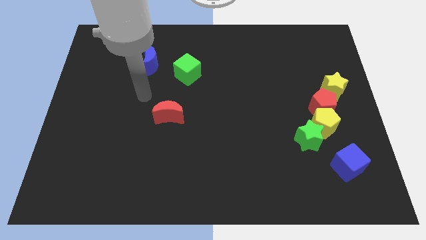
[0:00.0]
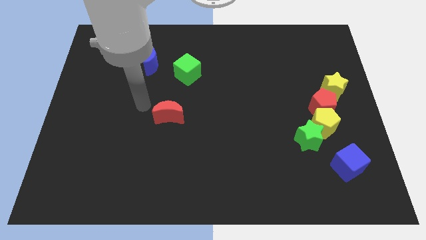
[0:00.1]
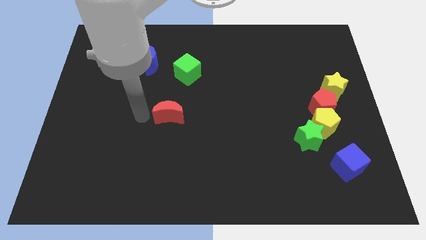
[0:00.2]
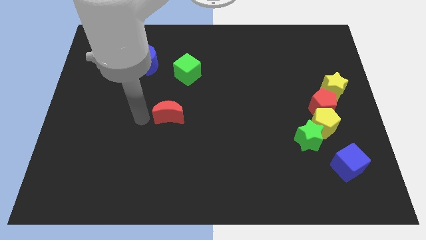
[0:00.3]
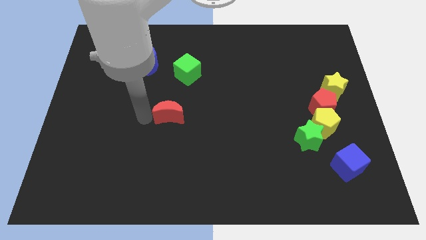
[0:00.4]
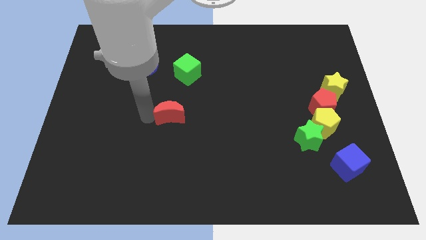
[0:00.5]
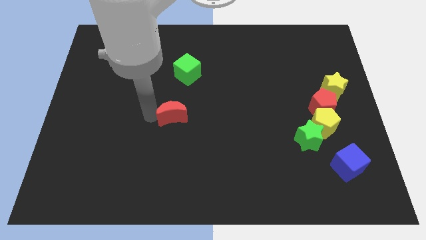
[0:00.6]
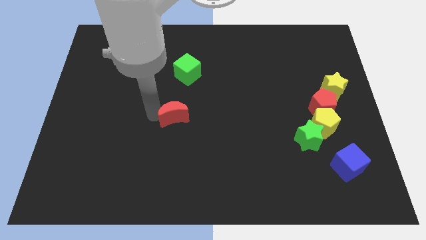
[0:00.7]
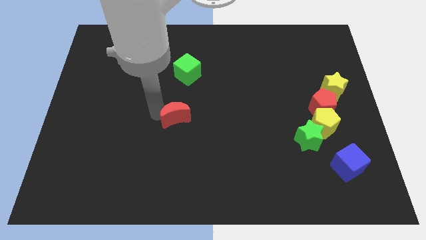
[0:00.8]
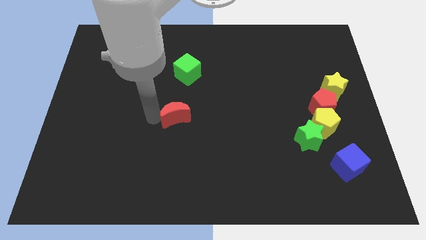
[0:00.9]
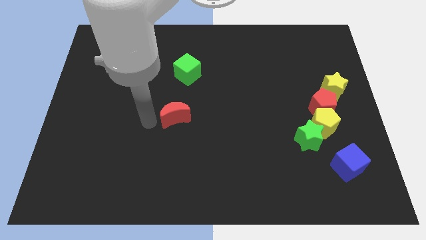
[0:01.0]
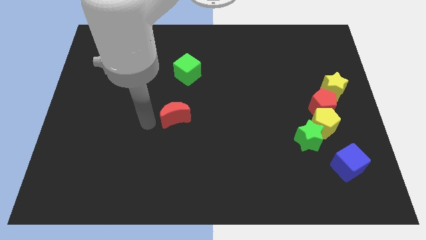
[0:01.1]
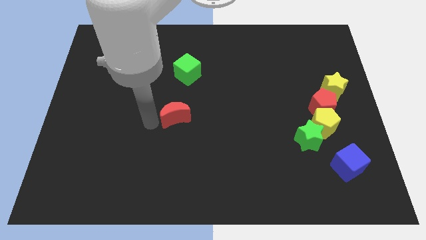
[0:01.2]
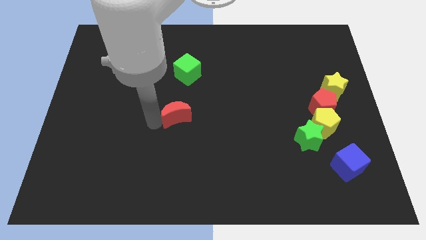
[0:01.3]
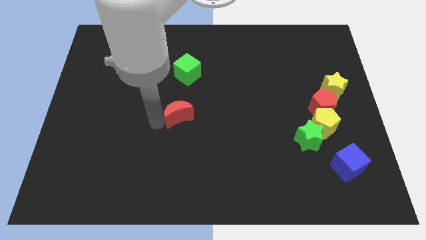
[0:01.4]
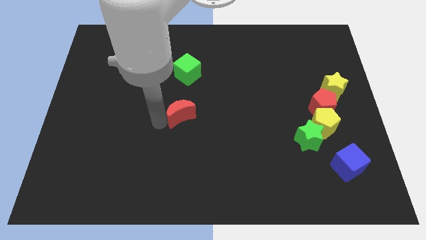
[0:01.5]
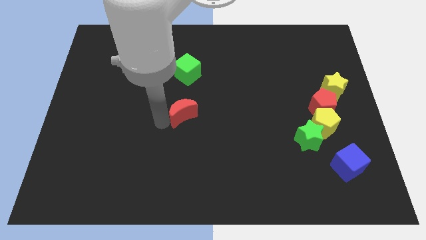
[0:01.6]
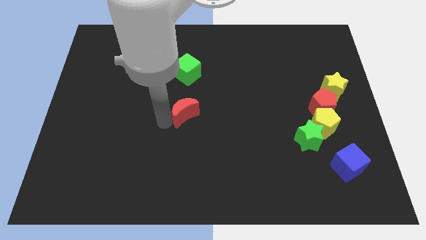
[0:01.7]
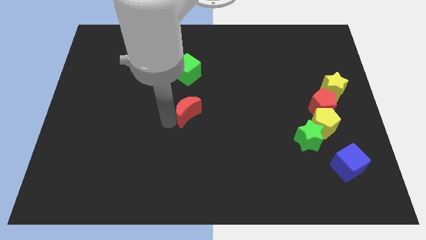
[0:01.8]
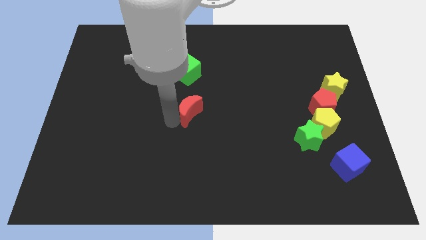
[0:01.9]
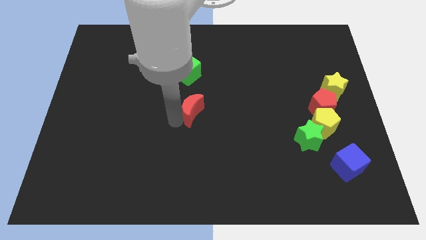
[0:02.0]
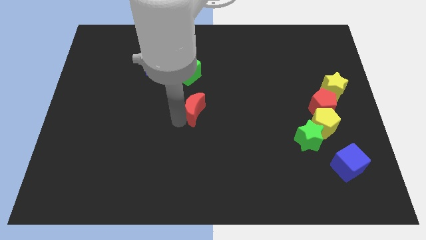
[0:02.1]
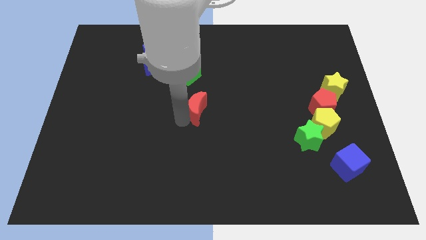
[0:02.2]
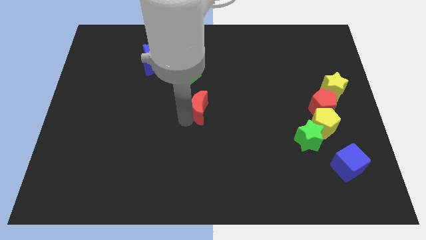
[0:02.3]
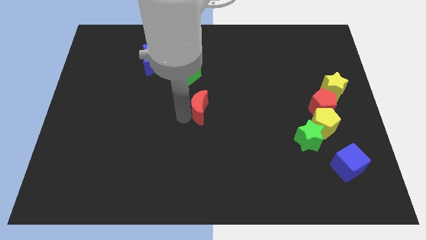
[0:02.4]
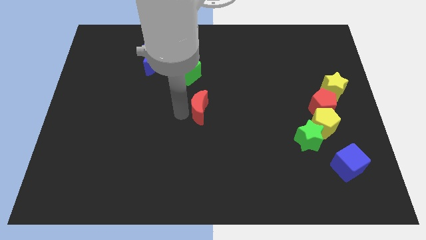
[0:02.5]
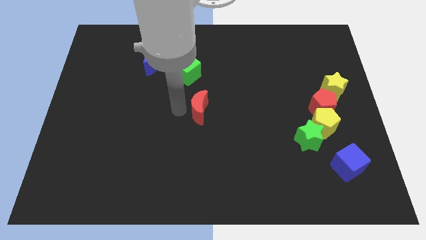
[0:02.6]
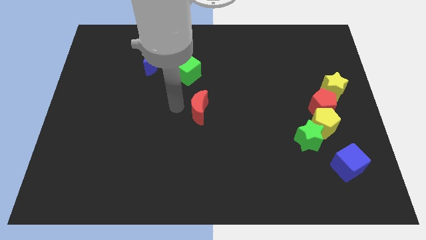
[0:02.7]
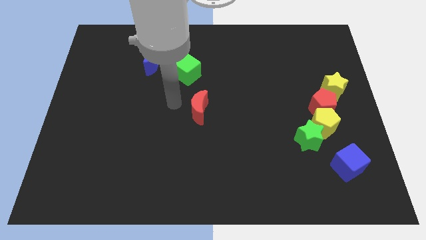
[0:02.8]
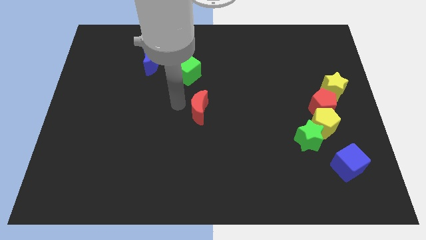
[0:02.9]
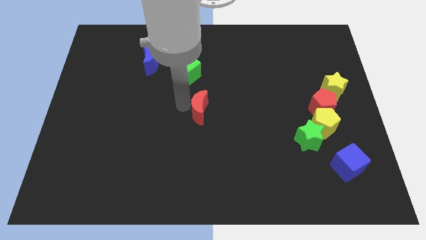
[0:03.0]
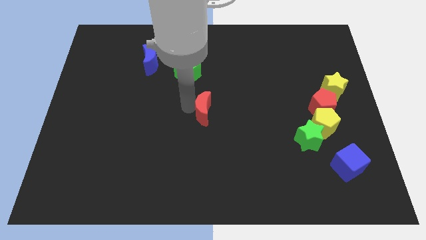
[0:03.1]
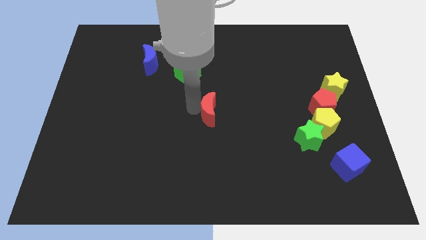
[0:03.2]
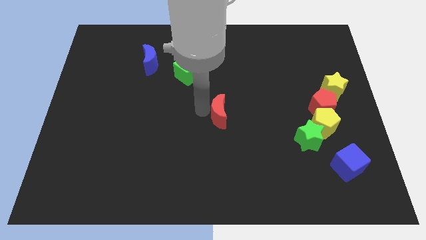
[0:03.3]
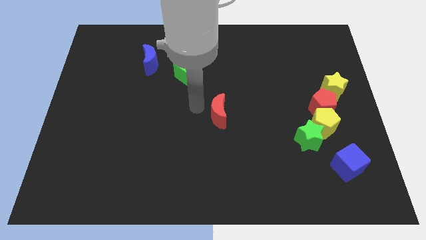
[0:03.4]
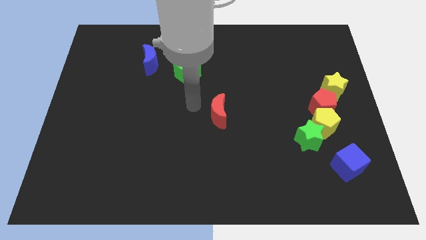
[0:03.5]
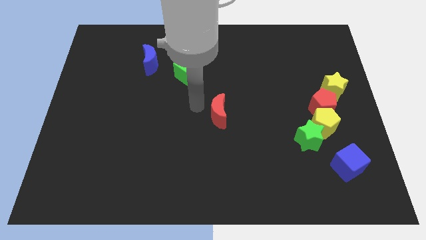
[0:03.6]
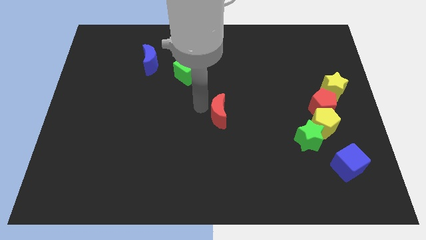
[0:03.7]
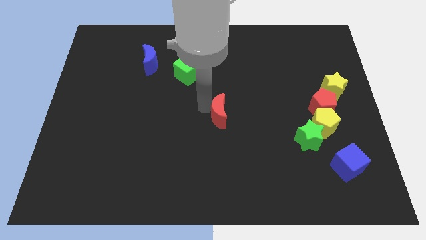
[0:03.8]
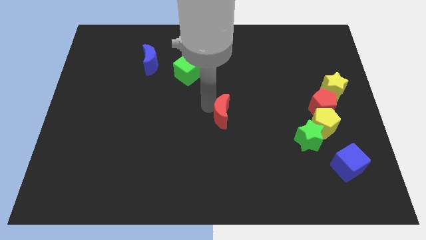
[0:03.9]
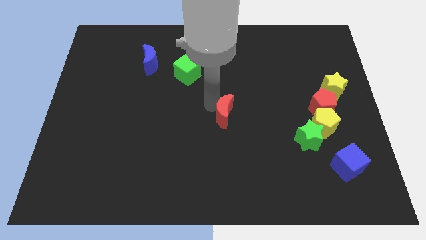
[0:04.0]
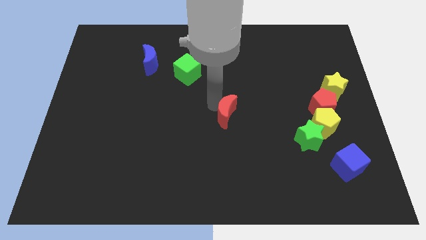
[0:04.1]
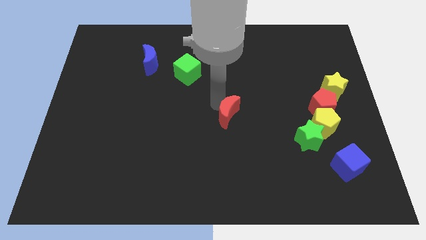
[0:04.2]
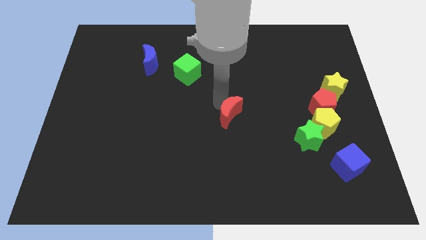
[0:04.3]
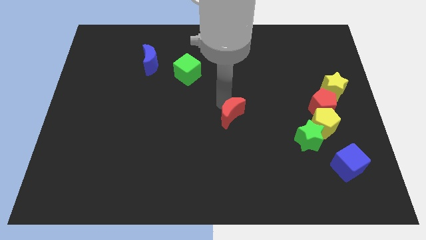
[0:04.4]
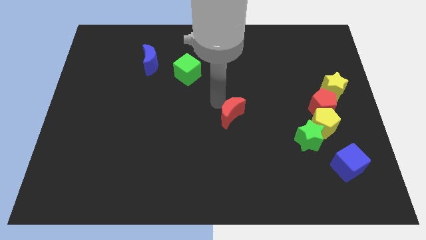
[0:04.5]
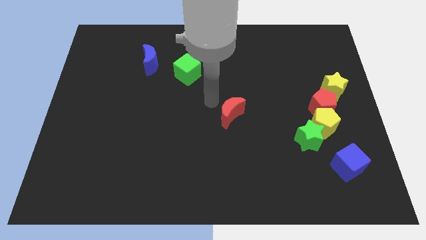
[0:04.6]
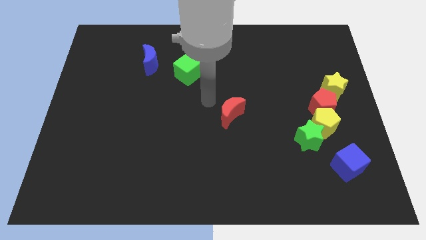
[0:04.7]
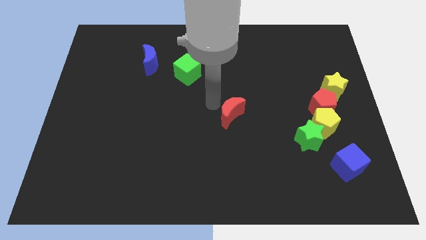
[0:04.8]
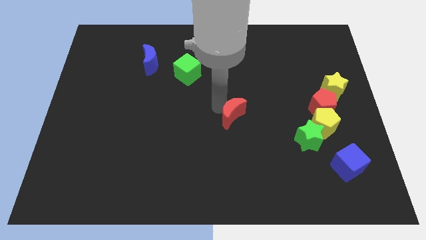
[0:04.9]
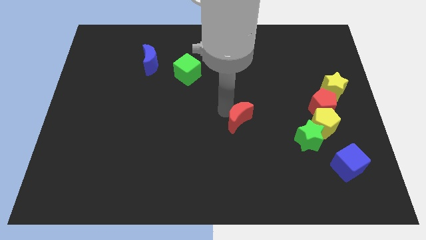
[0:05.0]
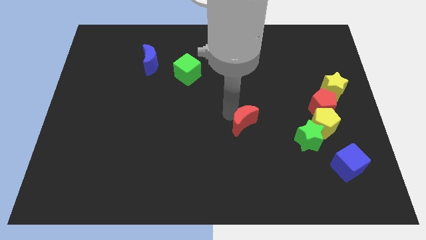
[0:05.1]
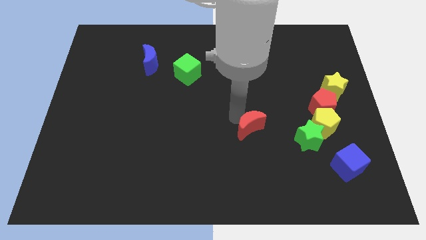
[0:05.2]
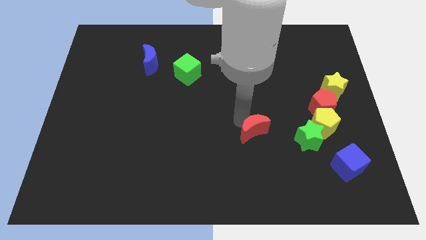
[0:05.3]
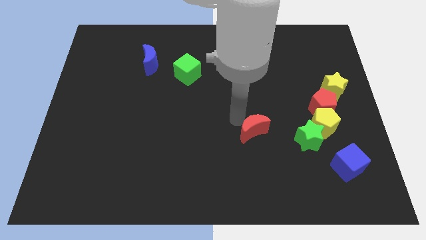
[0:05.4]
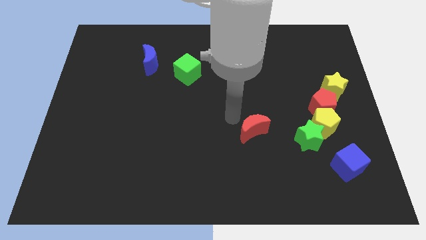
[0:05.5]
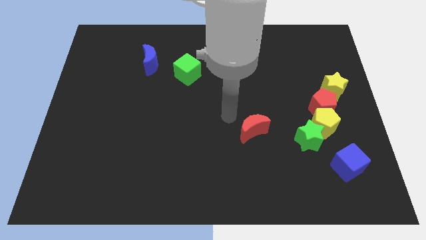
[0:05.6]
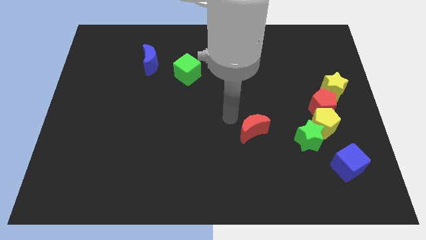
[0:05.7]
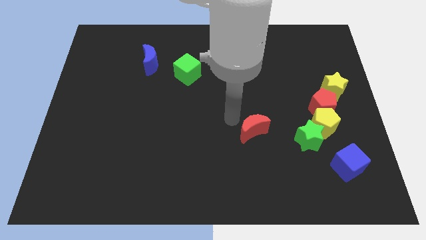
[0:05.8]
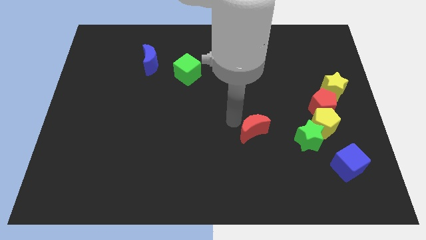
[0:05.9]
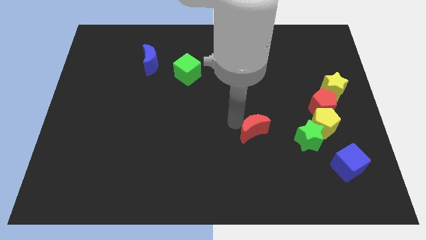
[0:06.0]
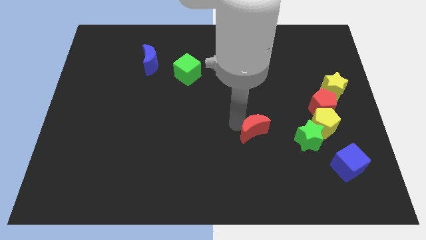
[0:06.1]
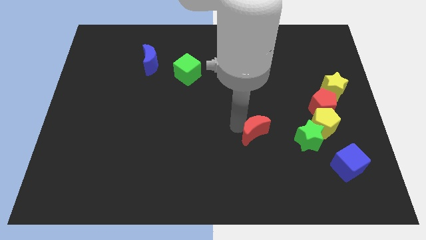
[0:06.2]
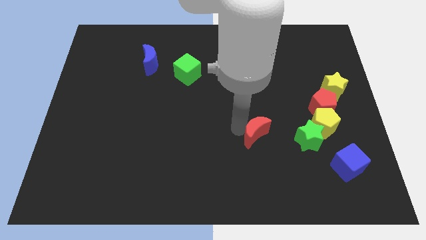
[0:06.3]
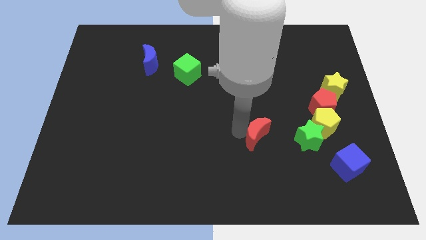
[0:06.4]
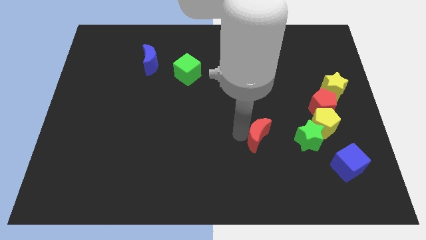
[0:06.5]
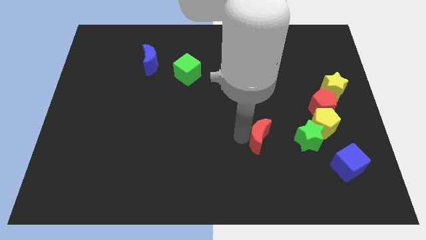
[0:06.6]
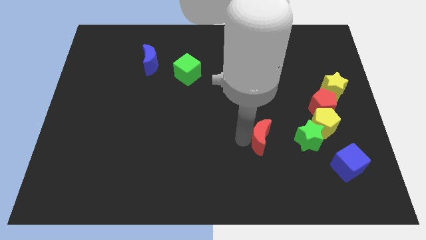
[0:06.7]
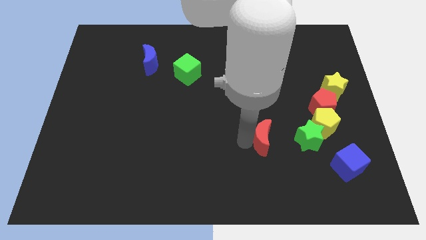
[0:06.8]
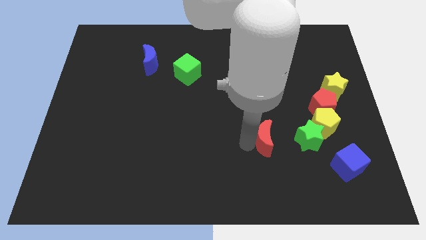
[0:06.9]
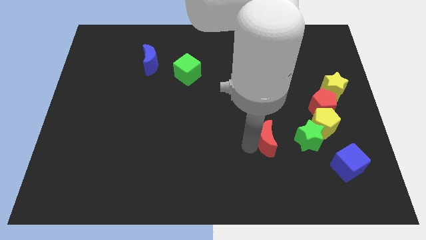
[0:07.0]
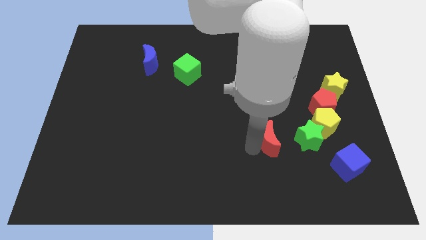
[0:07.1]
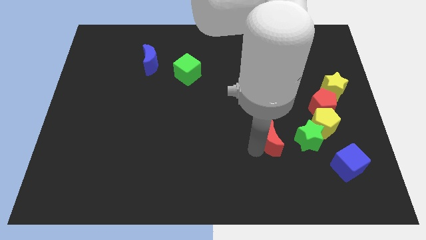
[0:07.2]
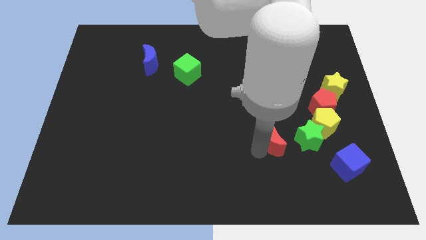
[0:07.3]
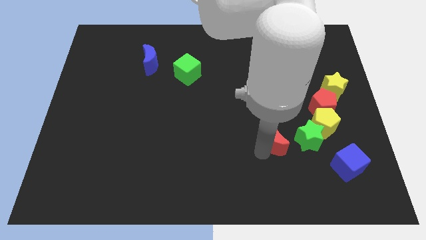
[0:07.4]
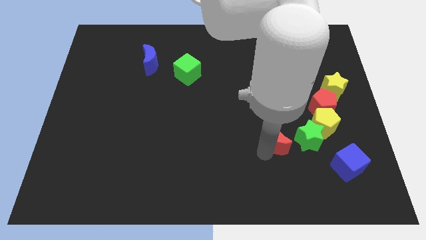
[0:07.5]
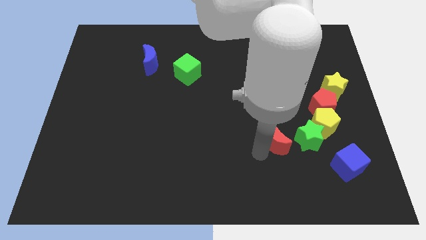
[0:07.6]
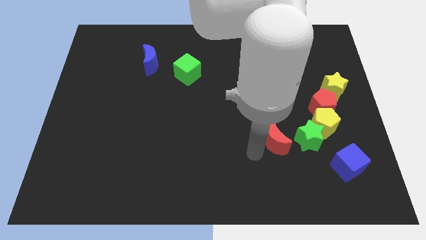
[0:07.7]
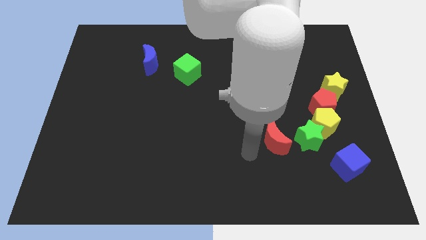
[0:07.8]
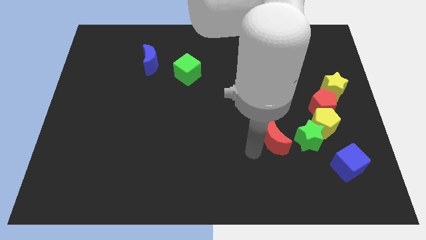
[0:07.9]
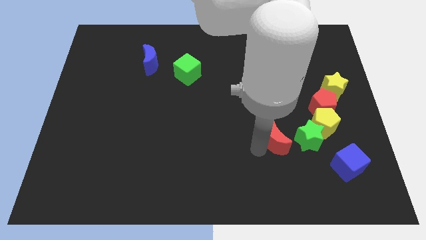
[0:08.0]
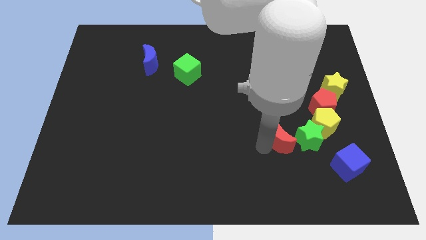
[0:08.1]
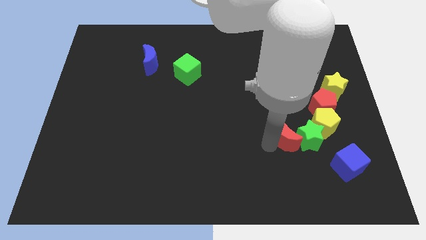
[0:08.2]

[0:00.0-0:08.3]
put the red moon close to the green star

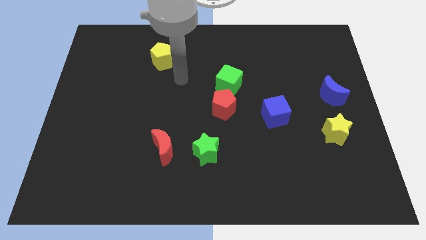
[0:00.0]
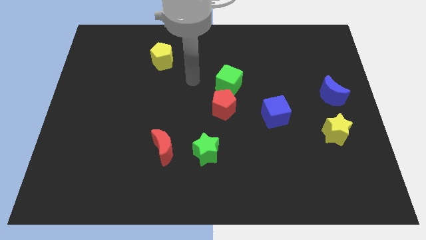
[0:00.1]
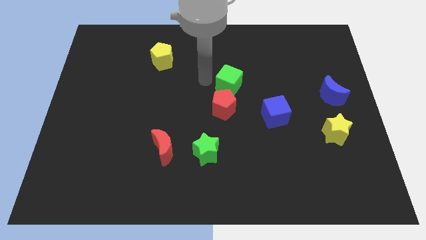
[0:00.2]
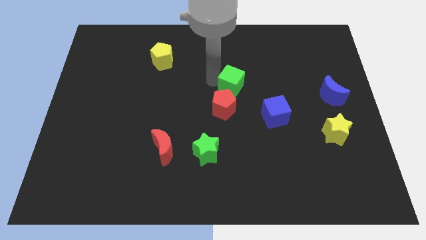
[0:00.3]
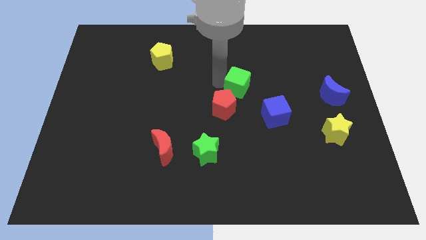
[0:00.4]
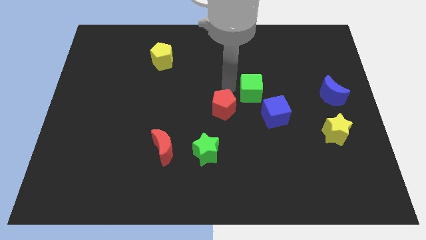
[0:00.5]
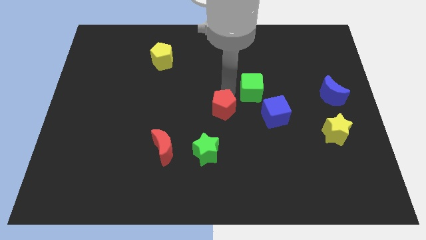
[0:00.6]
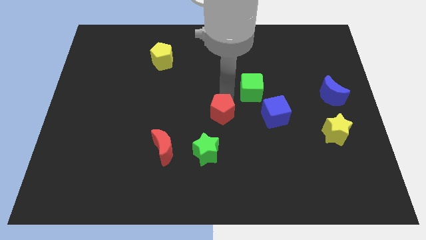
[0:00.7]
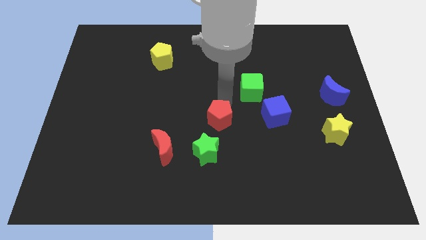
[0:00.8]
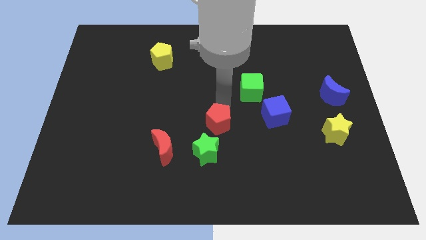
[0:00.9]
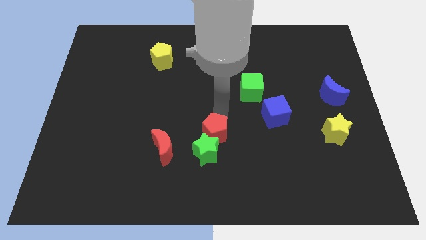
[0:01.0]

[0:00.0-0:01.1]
slide the red pentagon close to the green star
